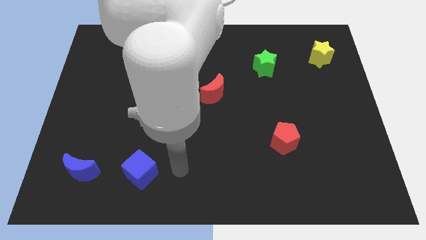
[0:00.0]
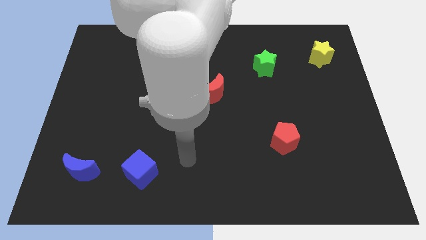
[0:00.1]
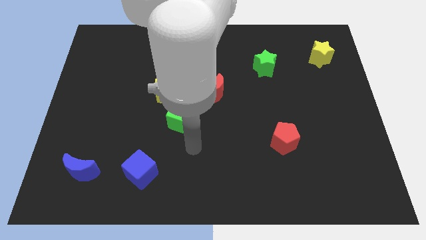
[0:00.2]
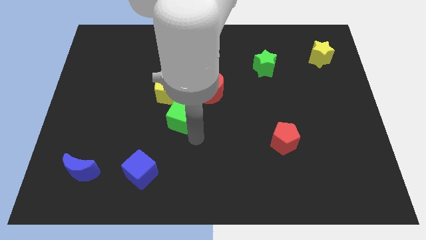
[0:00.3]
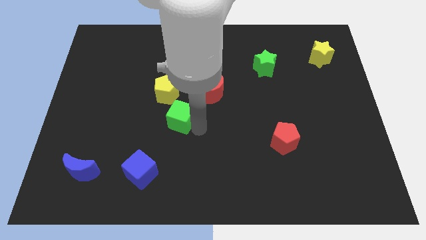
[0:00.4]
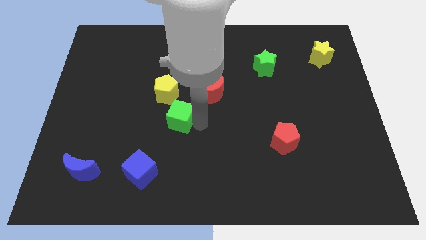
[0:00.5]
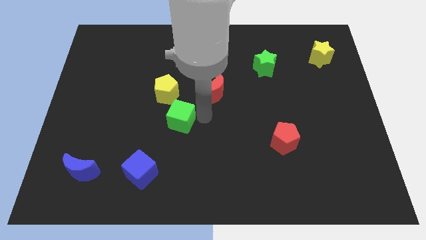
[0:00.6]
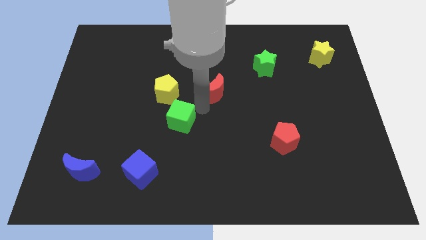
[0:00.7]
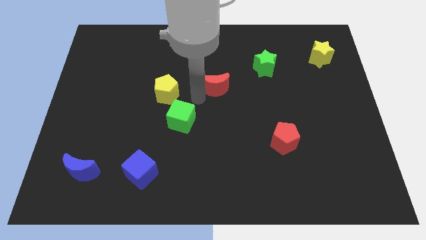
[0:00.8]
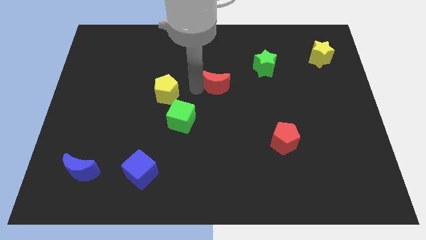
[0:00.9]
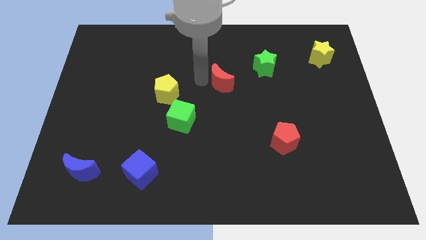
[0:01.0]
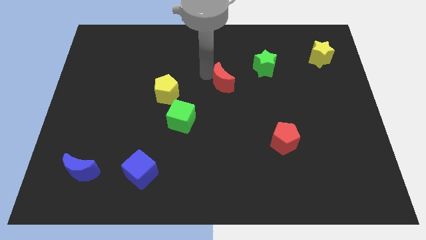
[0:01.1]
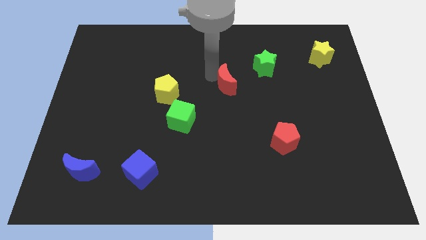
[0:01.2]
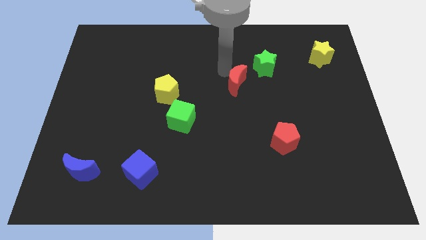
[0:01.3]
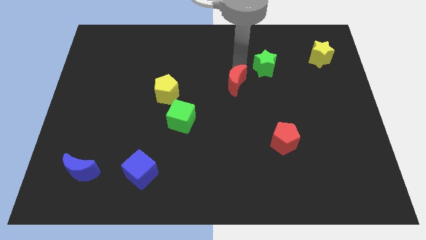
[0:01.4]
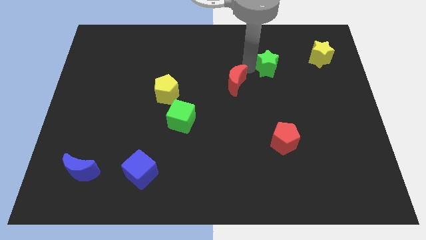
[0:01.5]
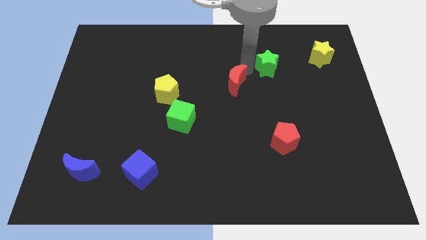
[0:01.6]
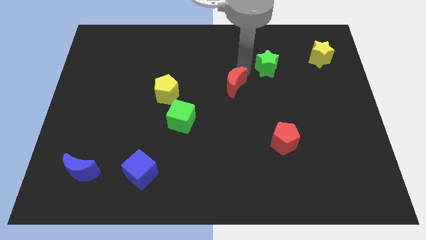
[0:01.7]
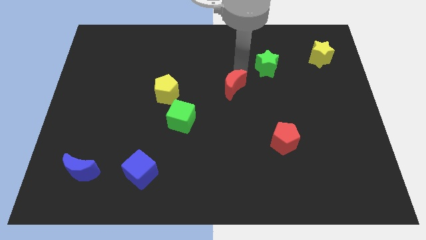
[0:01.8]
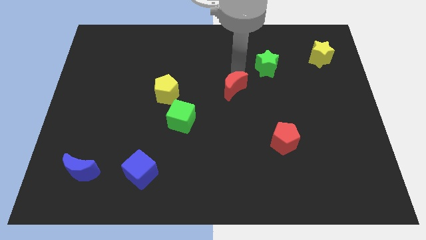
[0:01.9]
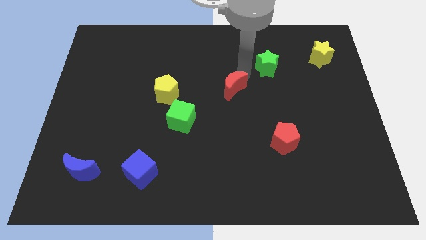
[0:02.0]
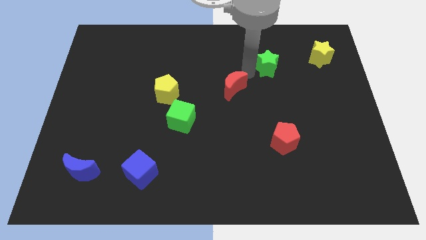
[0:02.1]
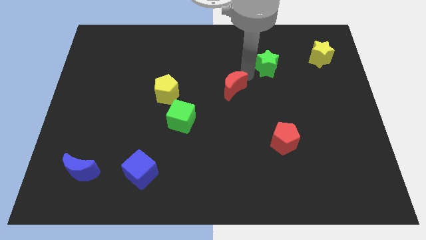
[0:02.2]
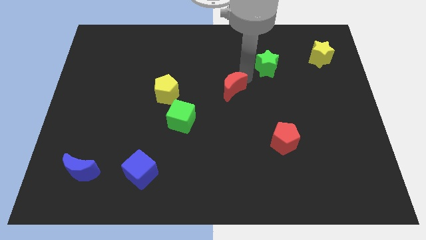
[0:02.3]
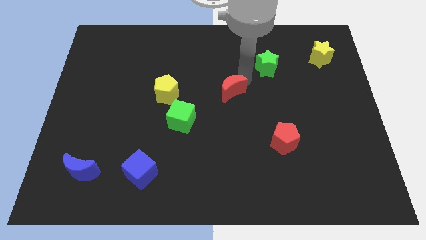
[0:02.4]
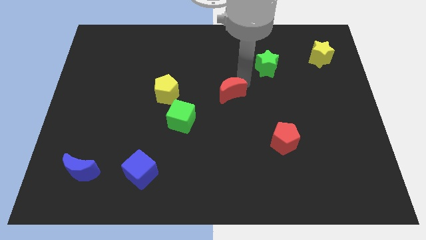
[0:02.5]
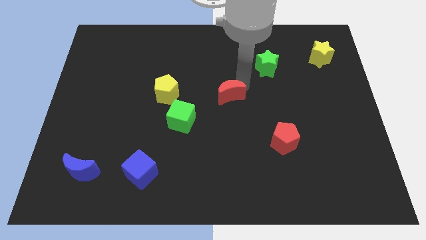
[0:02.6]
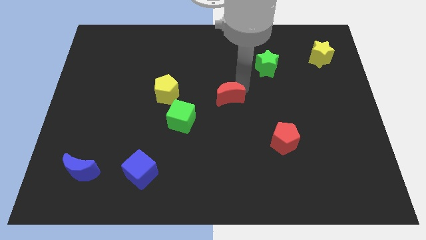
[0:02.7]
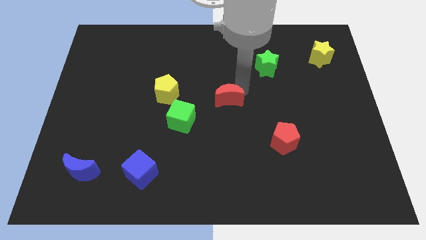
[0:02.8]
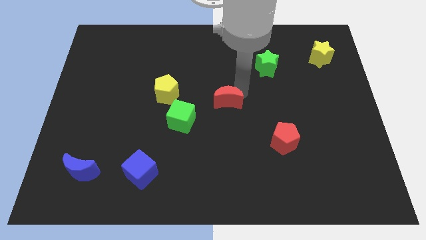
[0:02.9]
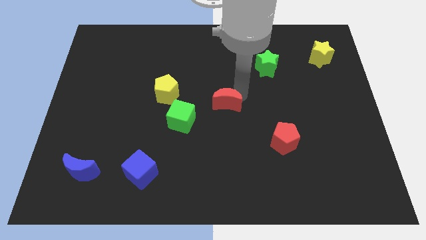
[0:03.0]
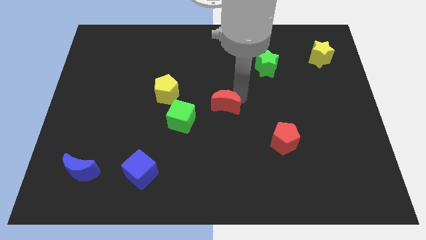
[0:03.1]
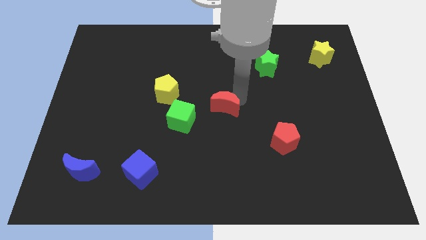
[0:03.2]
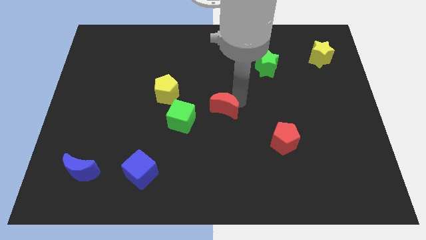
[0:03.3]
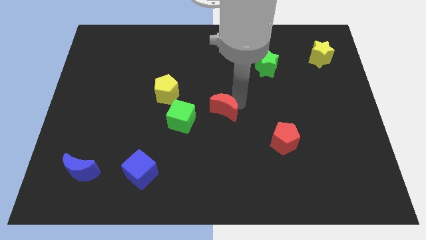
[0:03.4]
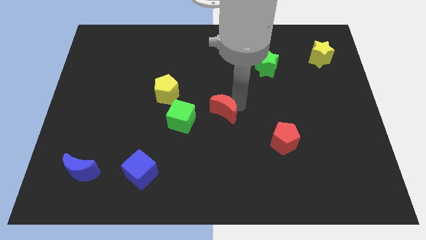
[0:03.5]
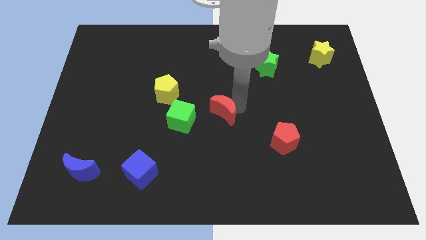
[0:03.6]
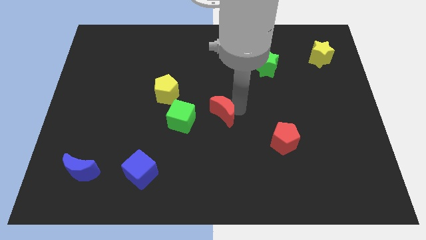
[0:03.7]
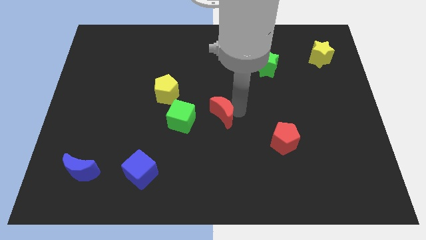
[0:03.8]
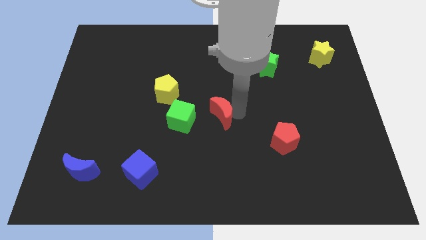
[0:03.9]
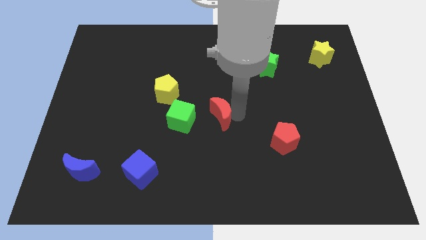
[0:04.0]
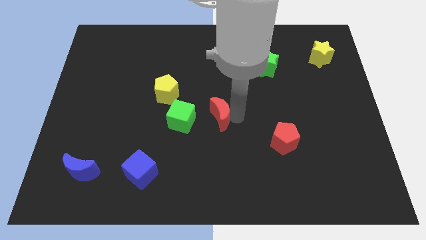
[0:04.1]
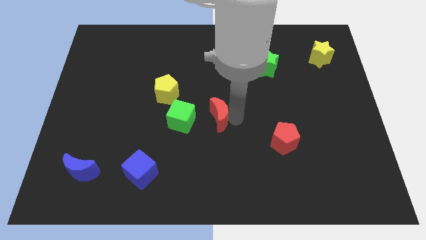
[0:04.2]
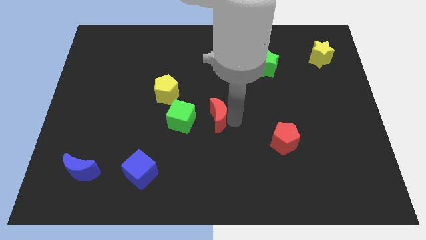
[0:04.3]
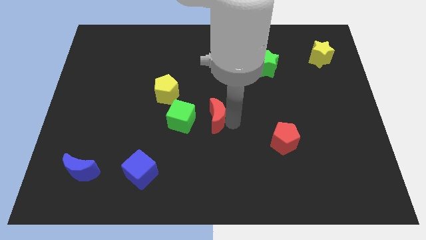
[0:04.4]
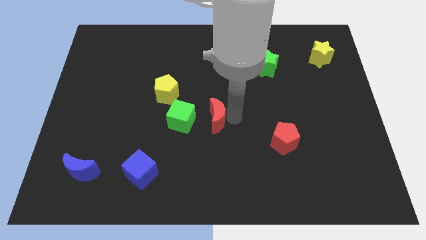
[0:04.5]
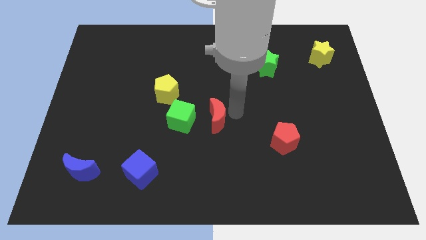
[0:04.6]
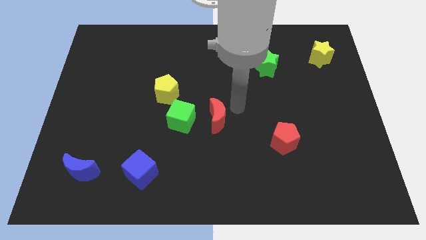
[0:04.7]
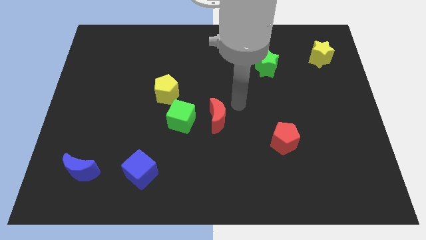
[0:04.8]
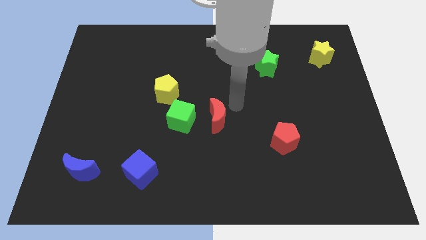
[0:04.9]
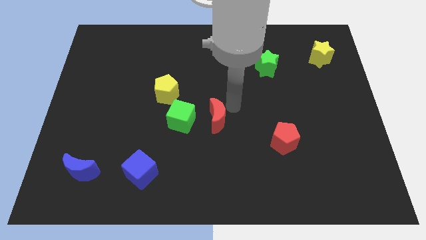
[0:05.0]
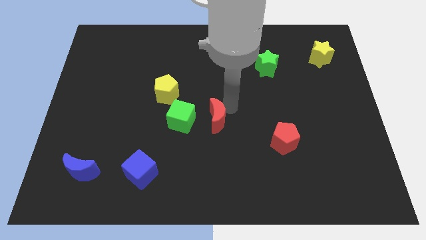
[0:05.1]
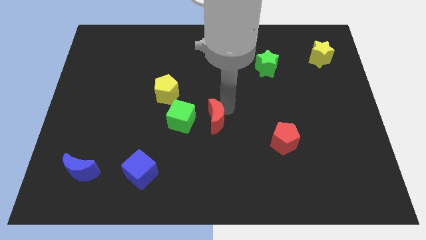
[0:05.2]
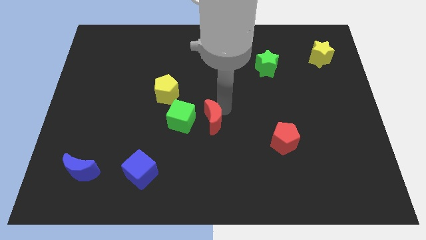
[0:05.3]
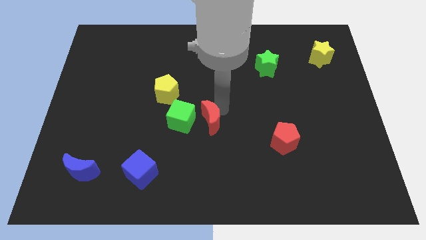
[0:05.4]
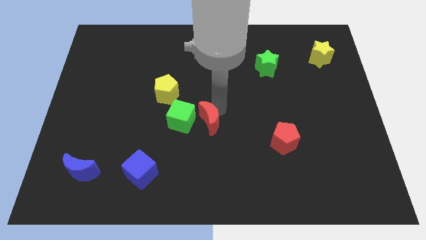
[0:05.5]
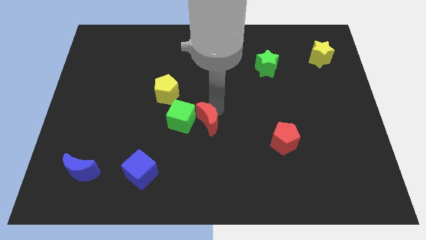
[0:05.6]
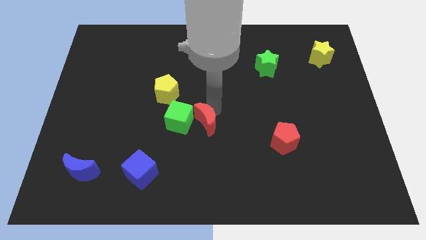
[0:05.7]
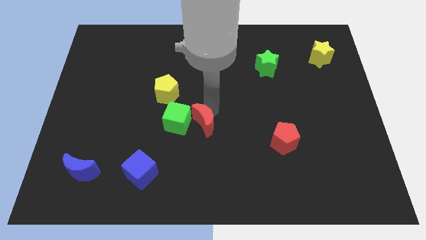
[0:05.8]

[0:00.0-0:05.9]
slide the red moon downwards and then left somewhat

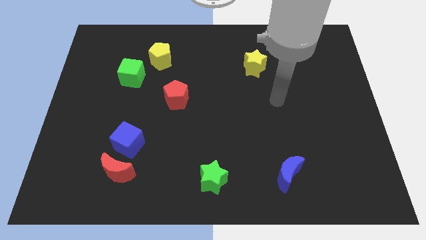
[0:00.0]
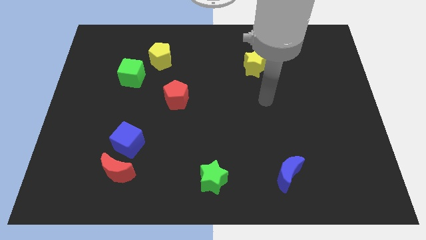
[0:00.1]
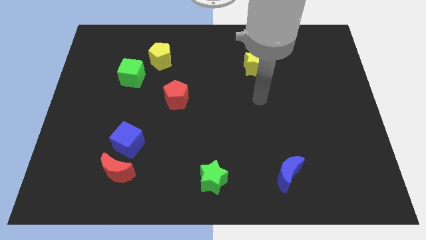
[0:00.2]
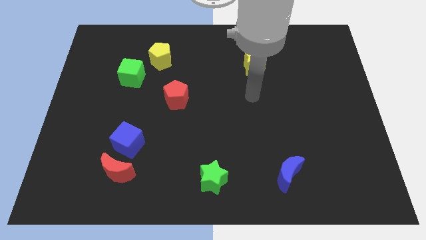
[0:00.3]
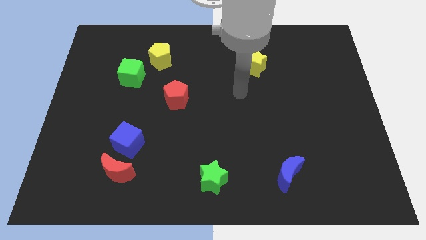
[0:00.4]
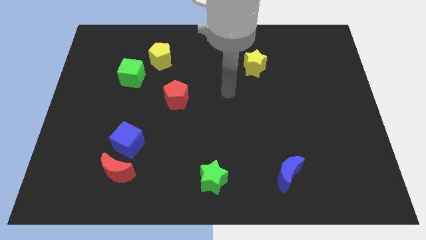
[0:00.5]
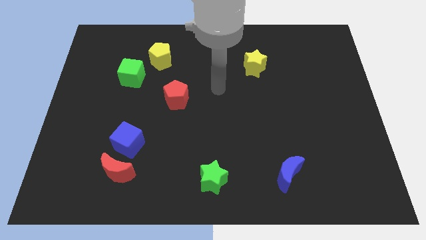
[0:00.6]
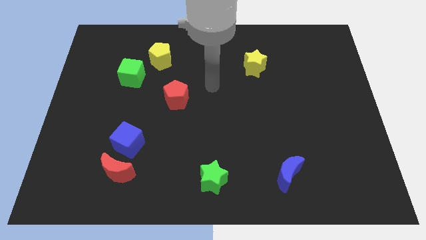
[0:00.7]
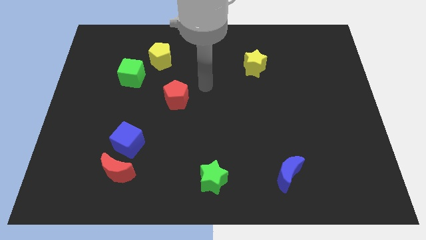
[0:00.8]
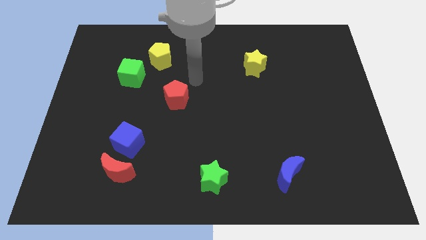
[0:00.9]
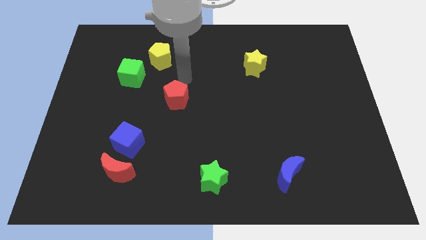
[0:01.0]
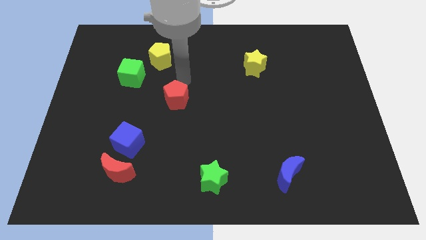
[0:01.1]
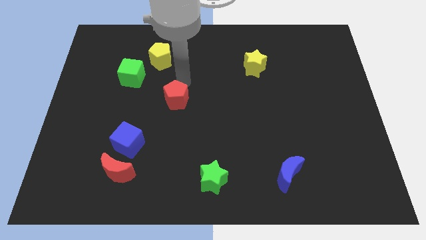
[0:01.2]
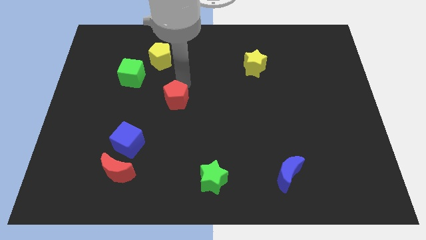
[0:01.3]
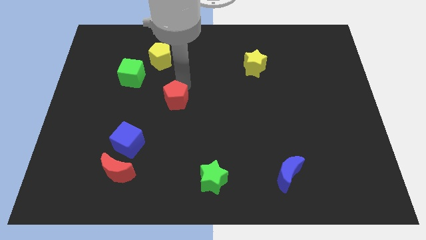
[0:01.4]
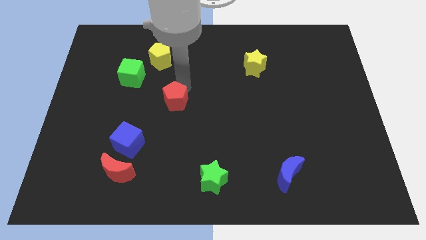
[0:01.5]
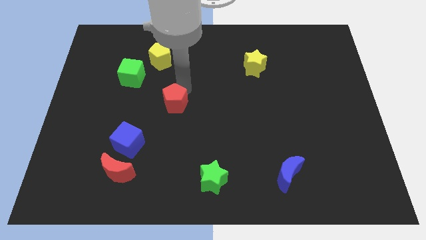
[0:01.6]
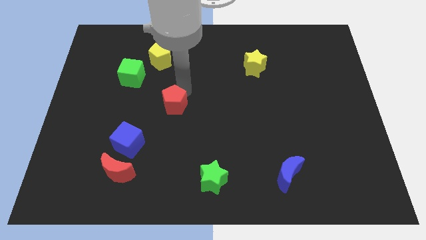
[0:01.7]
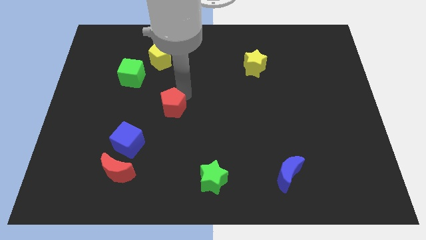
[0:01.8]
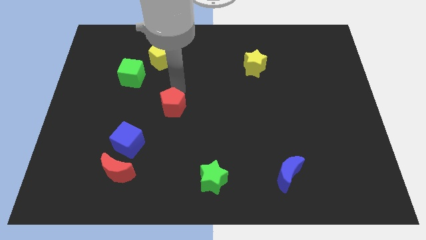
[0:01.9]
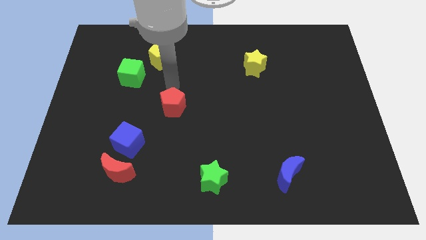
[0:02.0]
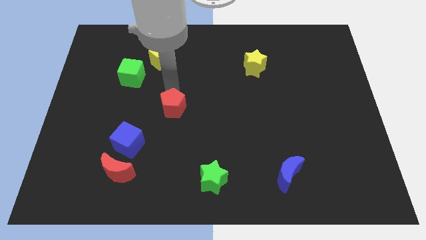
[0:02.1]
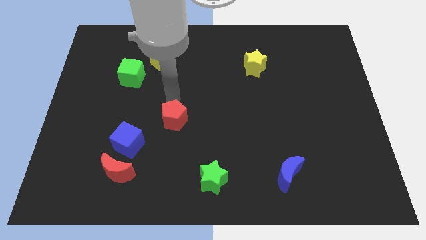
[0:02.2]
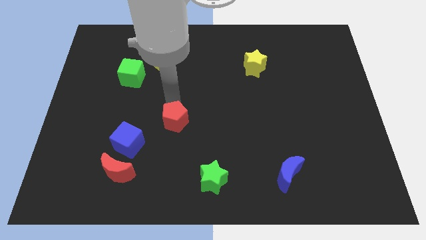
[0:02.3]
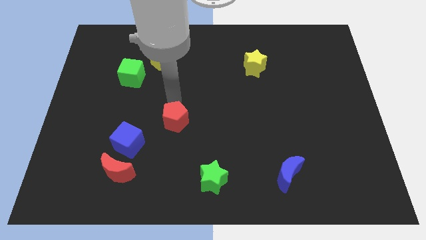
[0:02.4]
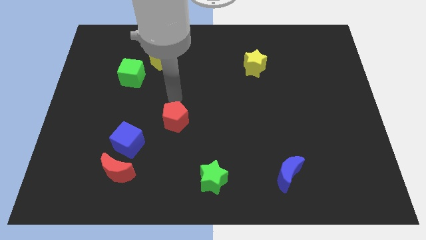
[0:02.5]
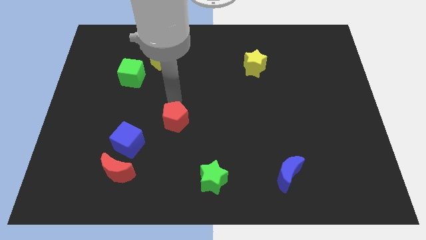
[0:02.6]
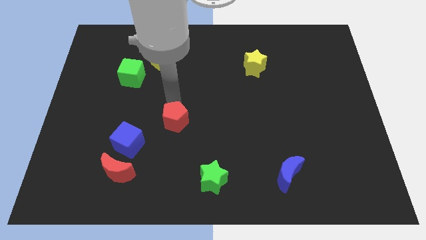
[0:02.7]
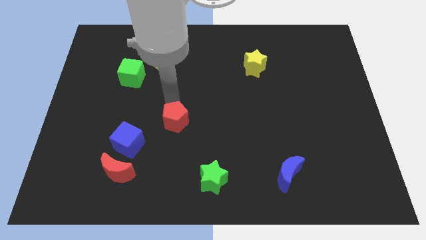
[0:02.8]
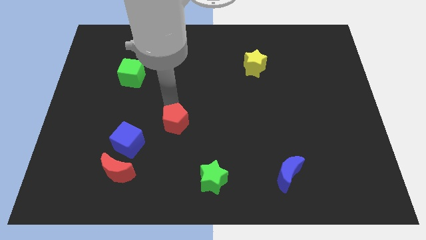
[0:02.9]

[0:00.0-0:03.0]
move the red pentagon a little bit down
